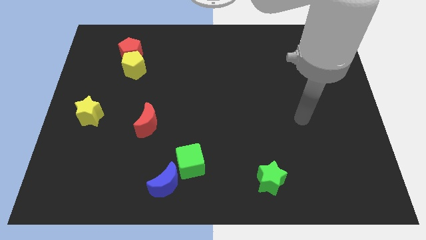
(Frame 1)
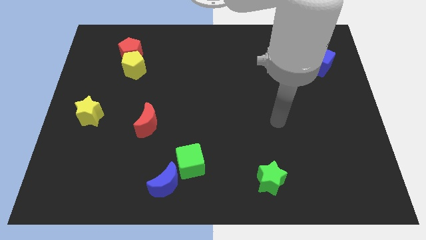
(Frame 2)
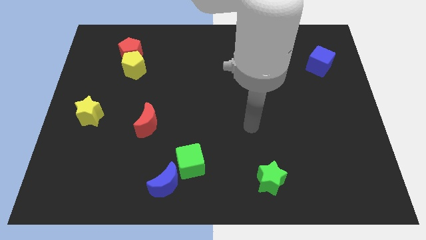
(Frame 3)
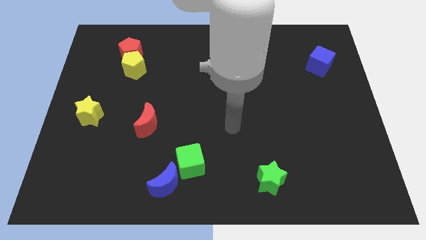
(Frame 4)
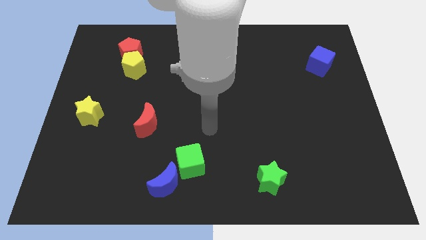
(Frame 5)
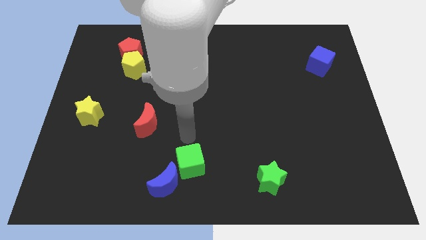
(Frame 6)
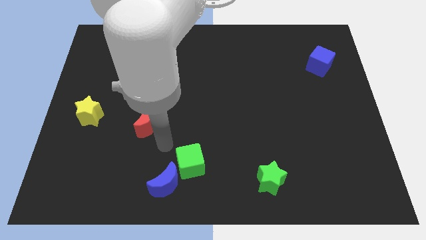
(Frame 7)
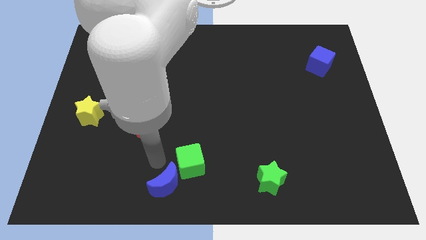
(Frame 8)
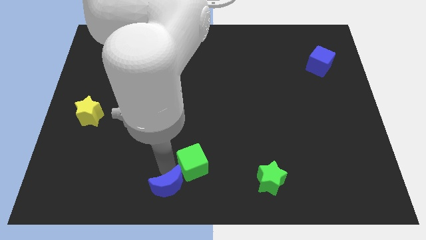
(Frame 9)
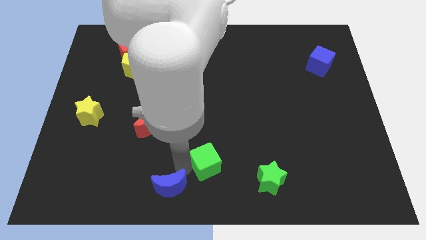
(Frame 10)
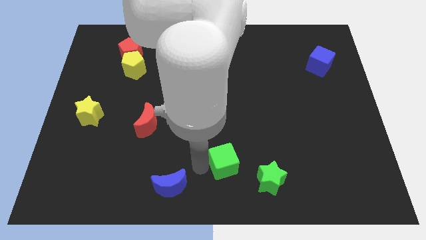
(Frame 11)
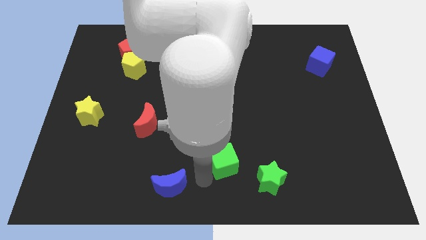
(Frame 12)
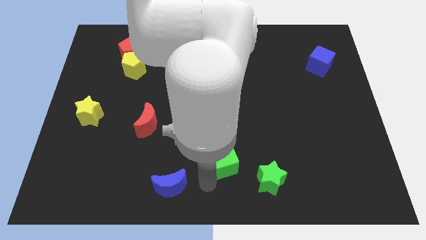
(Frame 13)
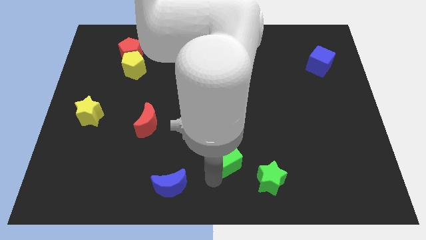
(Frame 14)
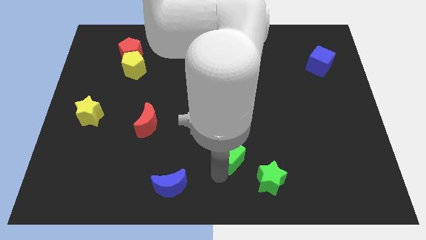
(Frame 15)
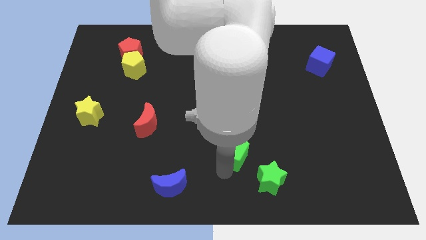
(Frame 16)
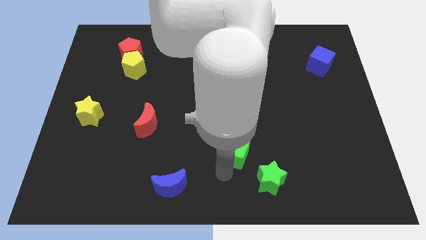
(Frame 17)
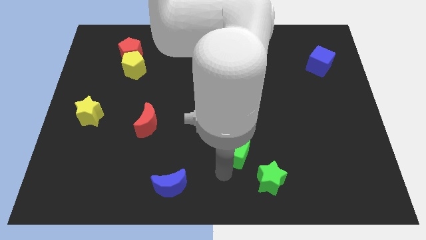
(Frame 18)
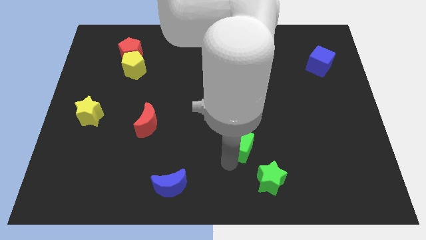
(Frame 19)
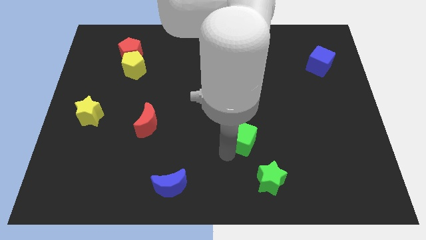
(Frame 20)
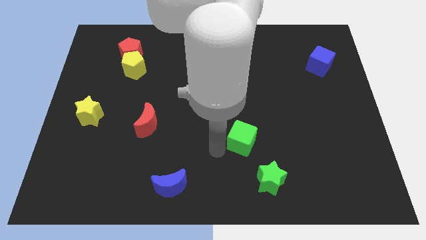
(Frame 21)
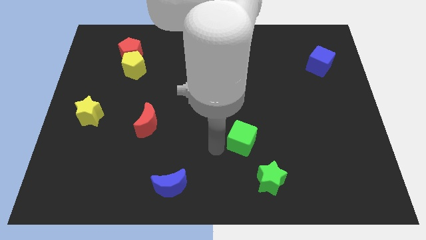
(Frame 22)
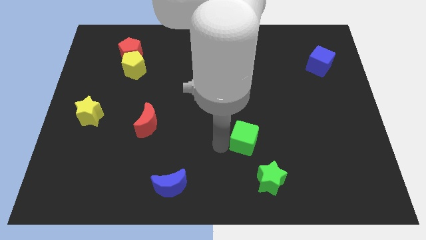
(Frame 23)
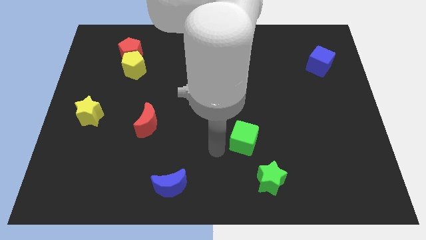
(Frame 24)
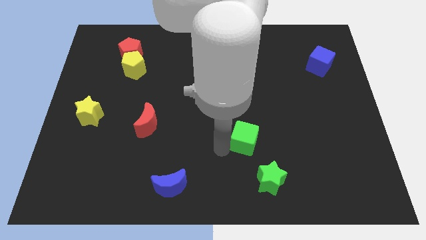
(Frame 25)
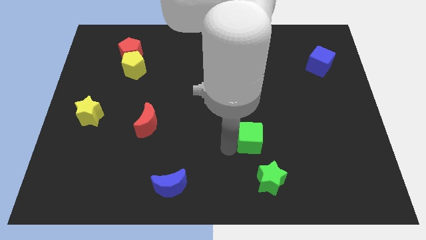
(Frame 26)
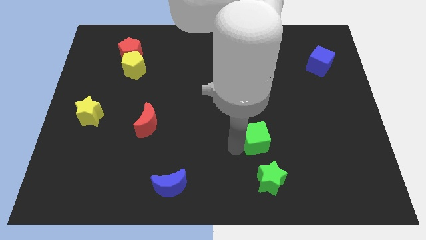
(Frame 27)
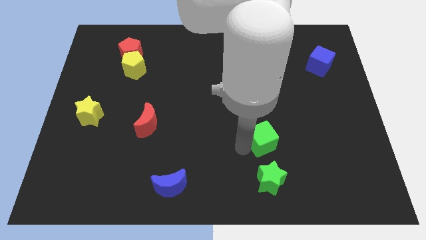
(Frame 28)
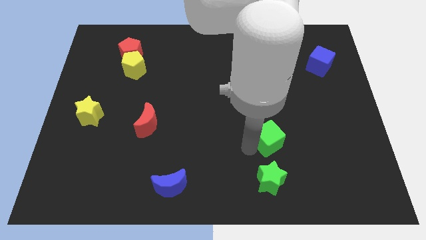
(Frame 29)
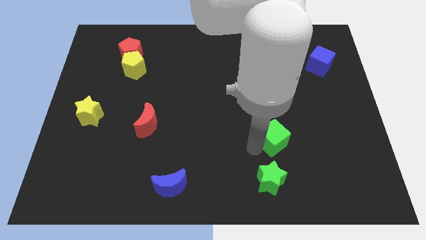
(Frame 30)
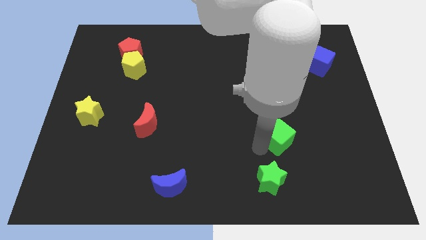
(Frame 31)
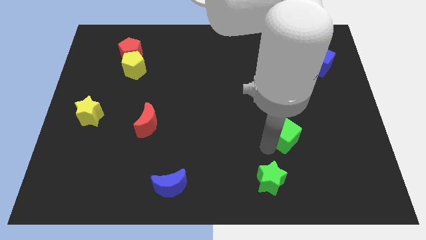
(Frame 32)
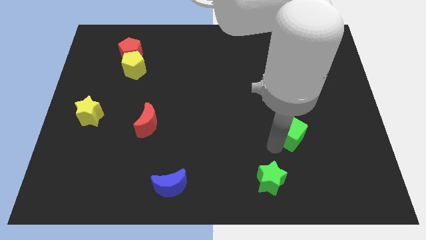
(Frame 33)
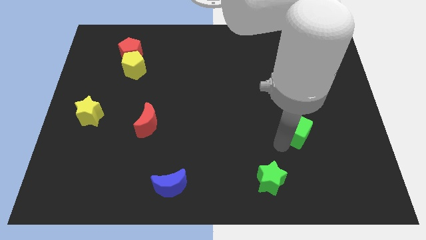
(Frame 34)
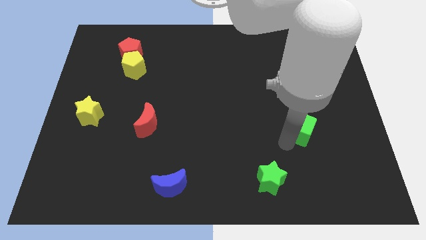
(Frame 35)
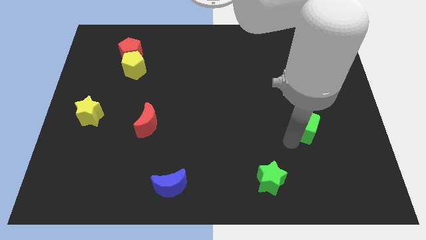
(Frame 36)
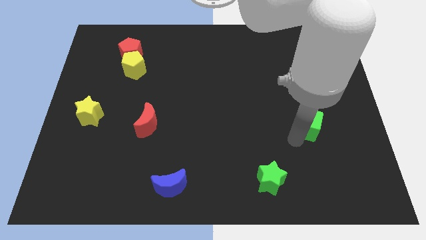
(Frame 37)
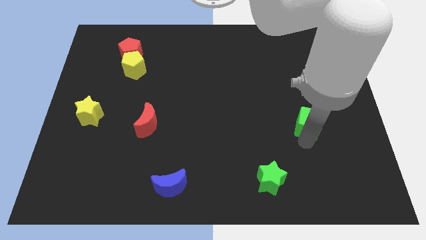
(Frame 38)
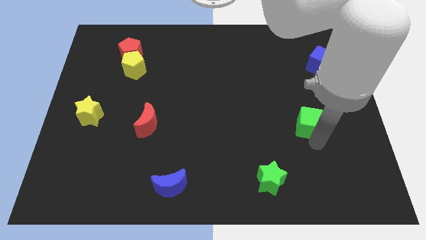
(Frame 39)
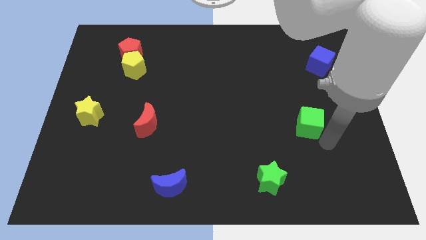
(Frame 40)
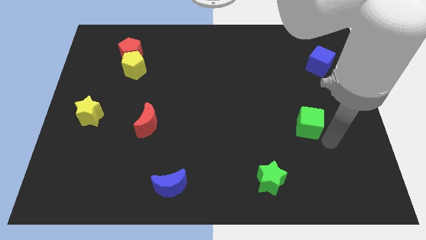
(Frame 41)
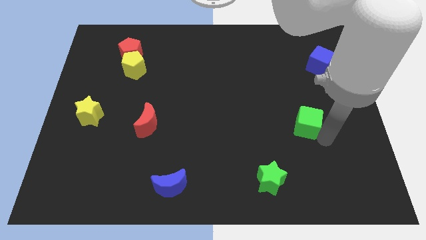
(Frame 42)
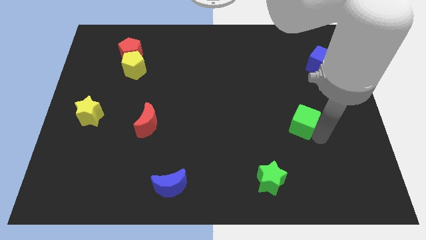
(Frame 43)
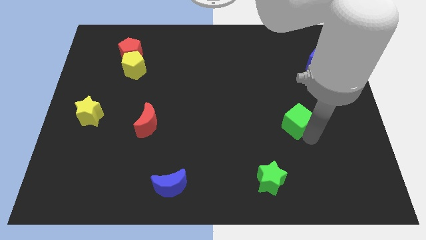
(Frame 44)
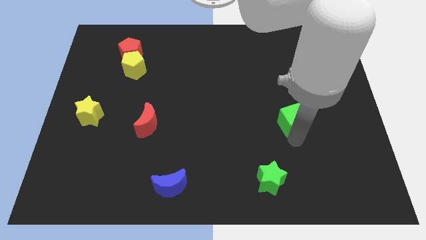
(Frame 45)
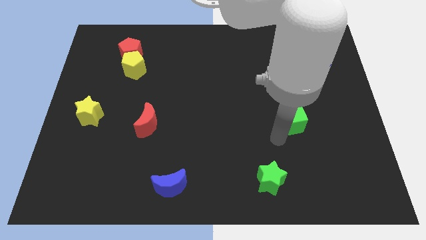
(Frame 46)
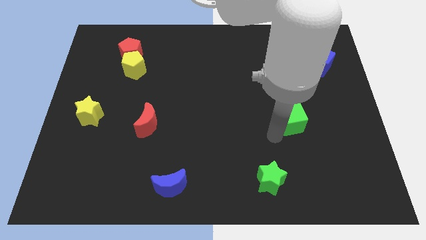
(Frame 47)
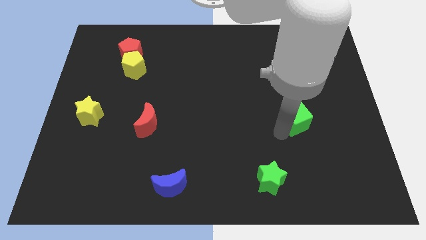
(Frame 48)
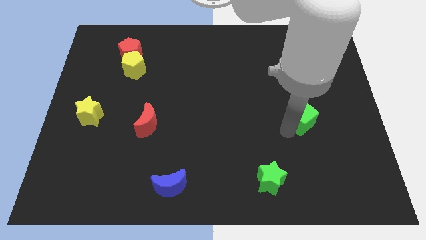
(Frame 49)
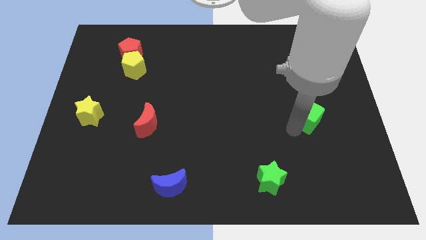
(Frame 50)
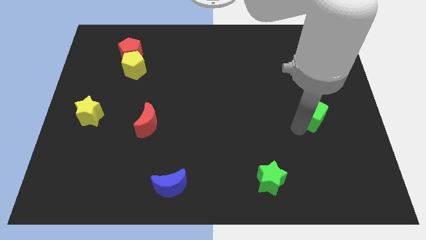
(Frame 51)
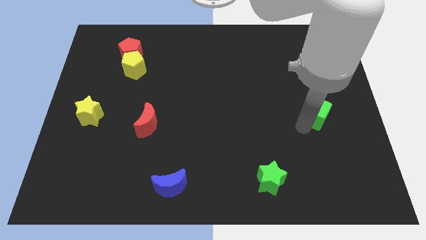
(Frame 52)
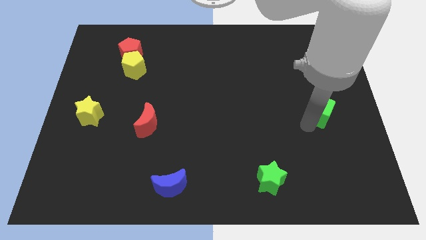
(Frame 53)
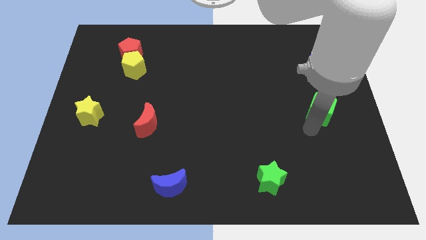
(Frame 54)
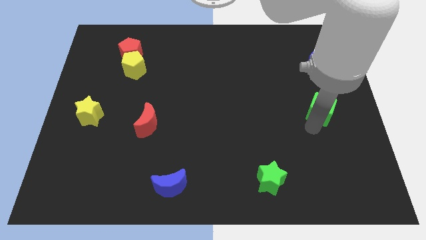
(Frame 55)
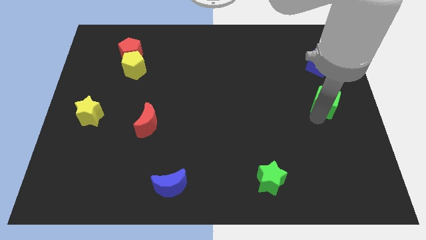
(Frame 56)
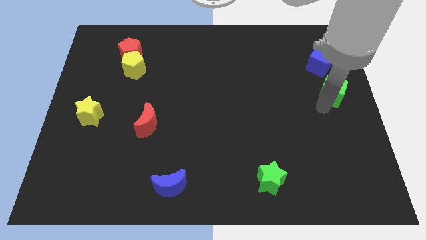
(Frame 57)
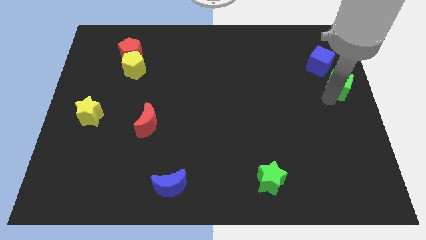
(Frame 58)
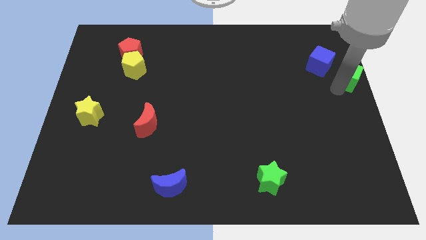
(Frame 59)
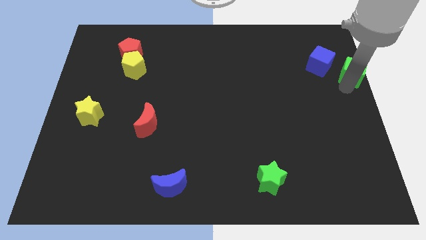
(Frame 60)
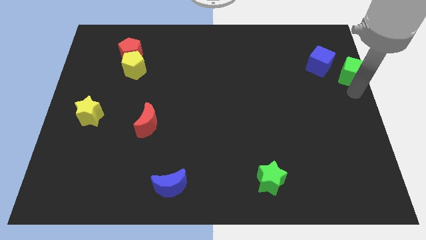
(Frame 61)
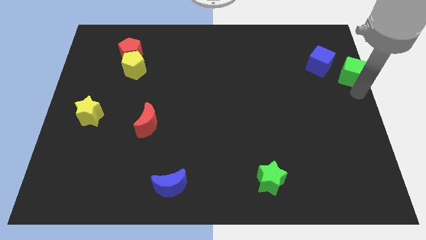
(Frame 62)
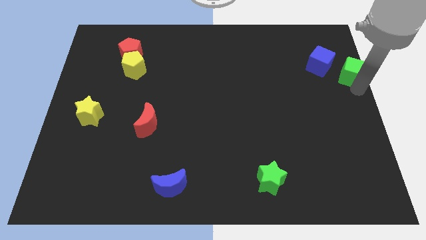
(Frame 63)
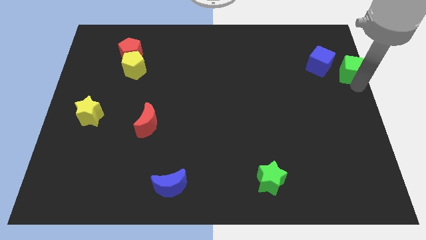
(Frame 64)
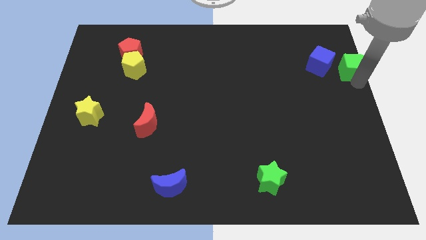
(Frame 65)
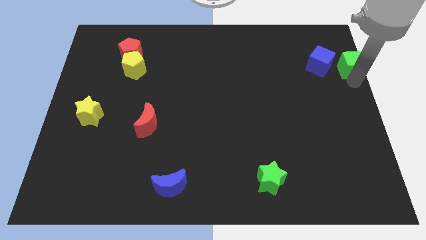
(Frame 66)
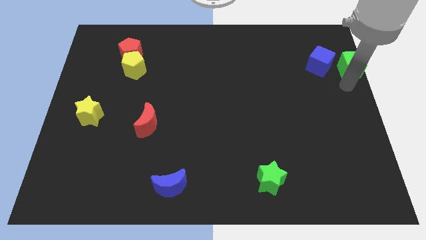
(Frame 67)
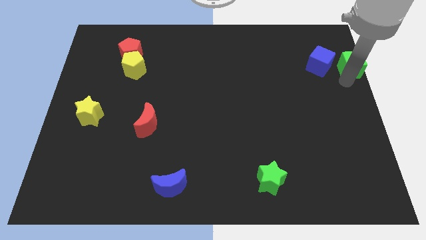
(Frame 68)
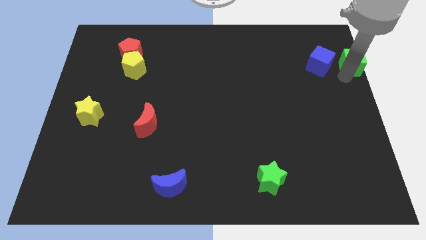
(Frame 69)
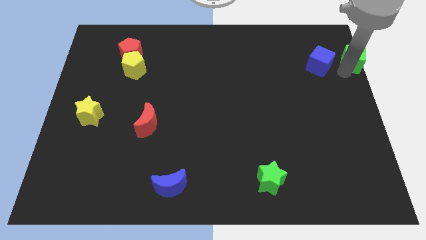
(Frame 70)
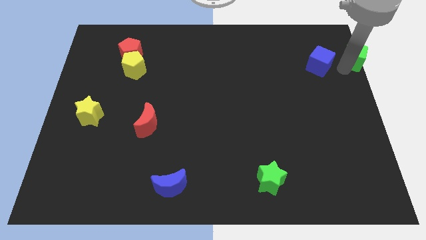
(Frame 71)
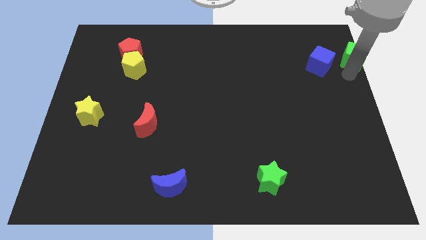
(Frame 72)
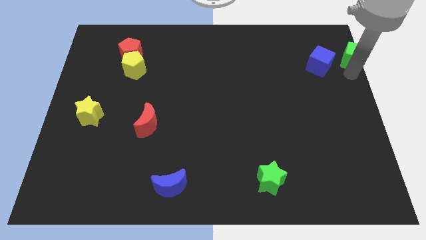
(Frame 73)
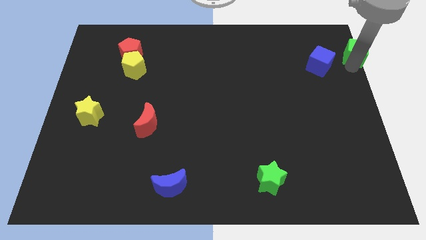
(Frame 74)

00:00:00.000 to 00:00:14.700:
move the green cube to the upper right corner

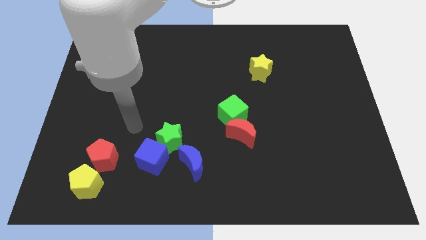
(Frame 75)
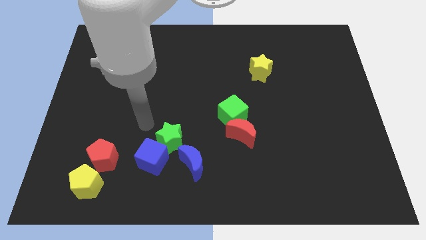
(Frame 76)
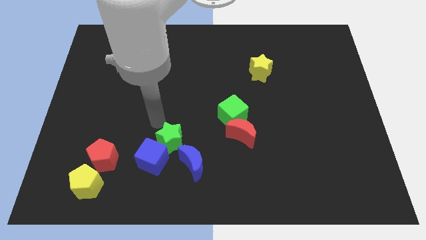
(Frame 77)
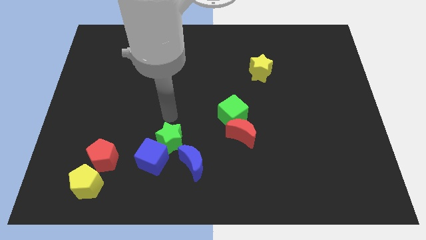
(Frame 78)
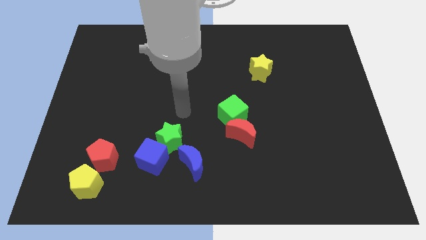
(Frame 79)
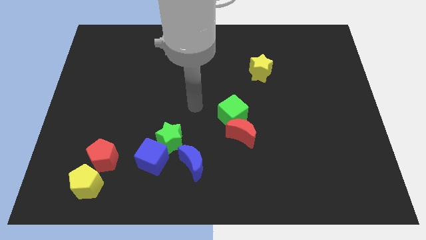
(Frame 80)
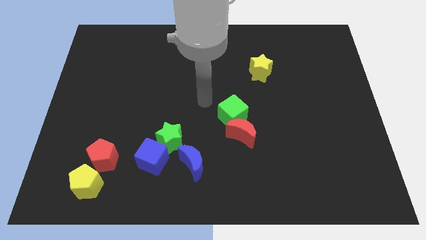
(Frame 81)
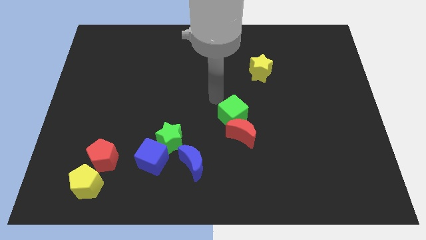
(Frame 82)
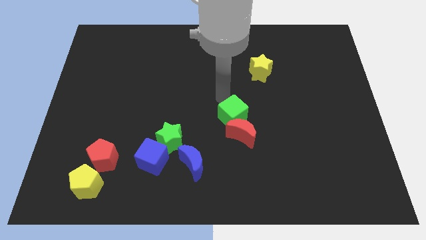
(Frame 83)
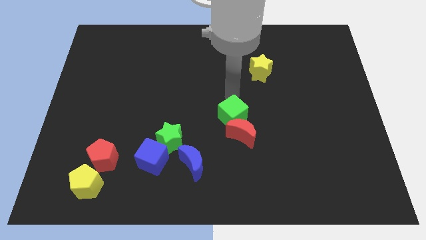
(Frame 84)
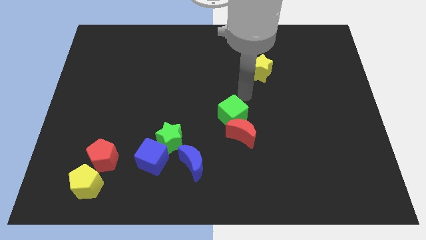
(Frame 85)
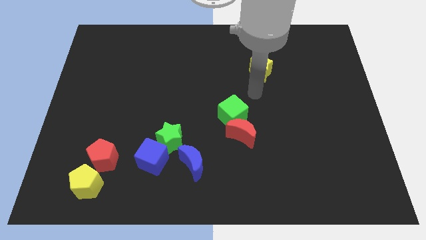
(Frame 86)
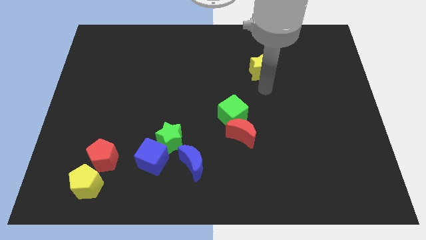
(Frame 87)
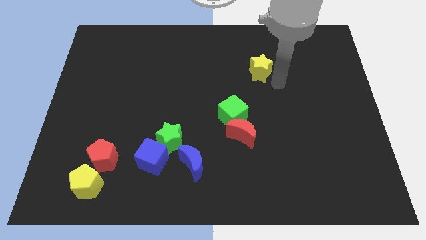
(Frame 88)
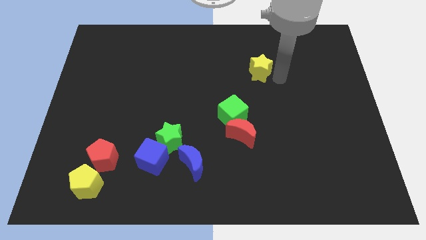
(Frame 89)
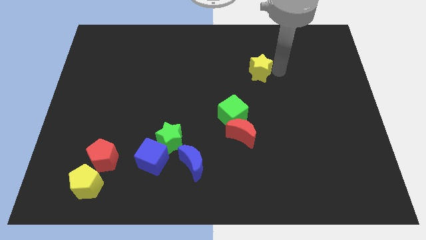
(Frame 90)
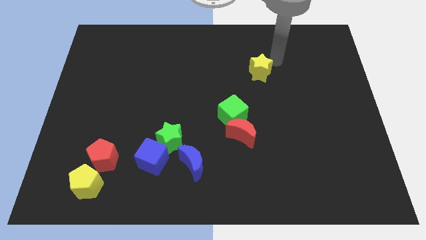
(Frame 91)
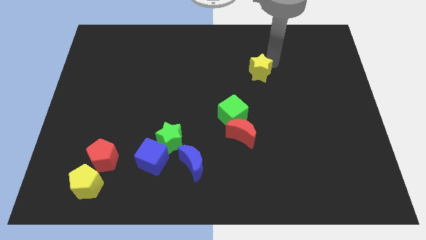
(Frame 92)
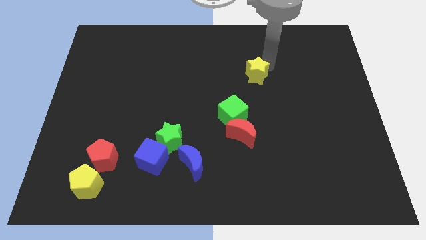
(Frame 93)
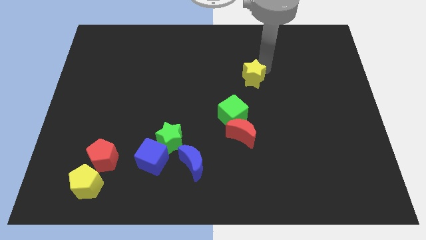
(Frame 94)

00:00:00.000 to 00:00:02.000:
slide the yellow star to the center of the board
